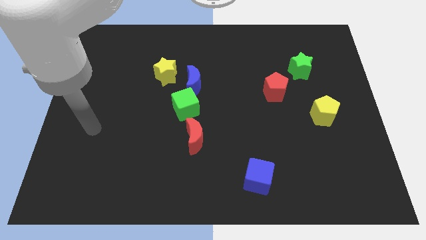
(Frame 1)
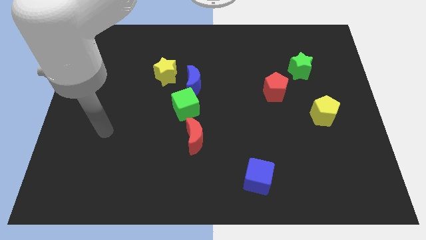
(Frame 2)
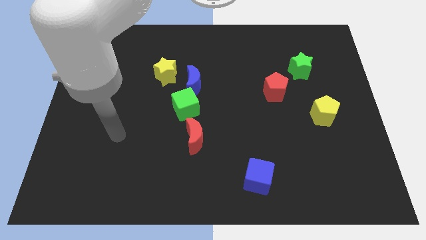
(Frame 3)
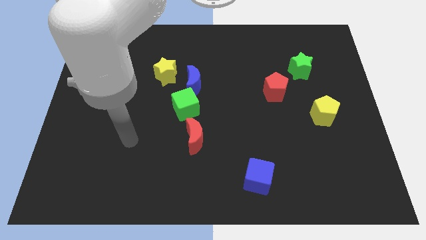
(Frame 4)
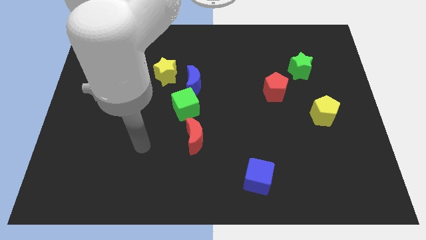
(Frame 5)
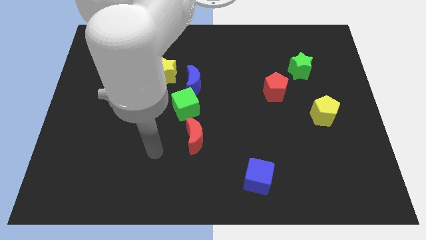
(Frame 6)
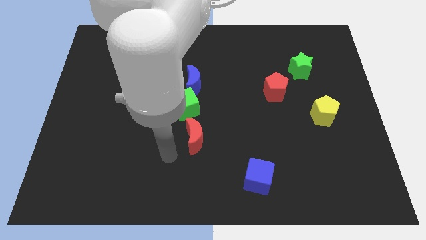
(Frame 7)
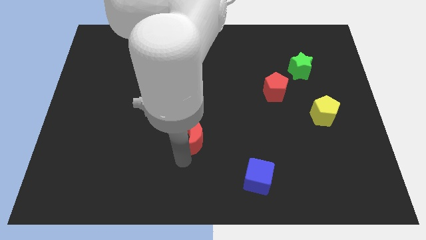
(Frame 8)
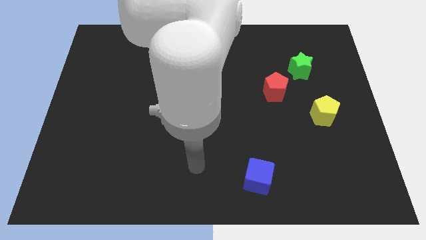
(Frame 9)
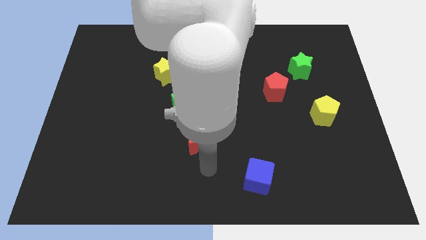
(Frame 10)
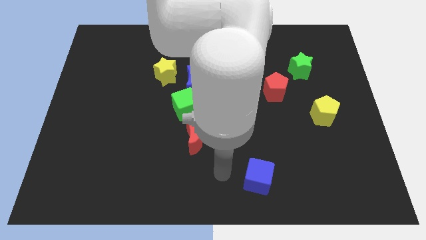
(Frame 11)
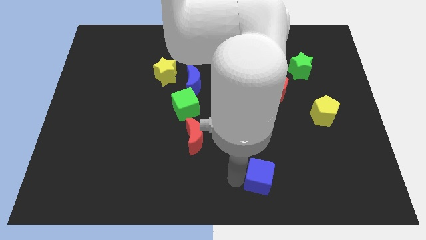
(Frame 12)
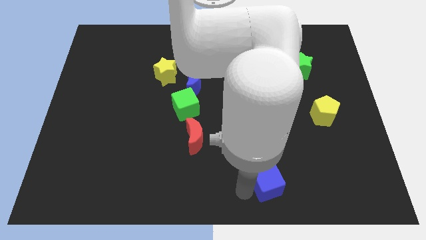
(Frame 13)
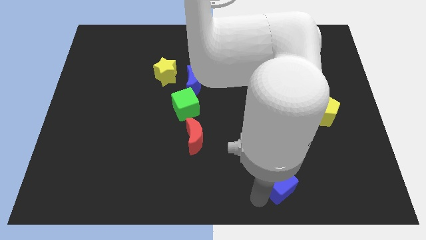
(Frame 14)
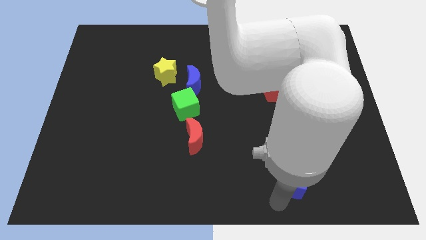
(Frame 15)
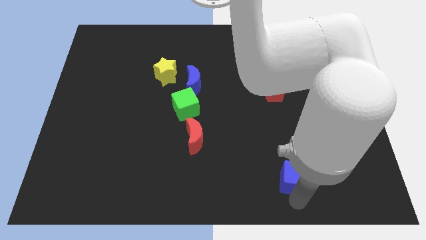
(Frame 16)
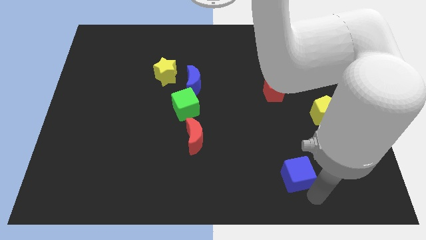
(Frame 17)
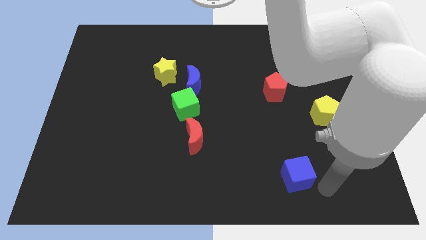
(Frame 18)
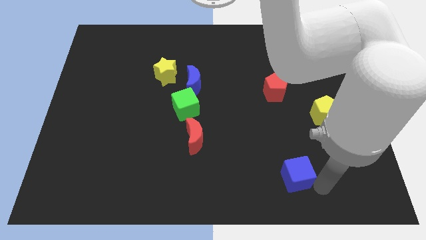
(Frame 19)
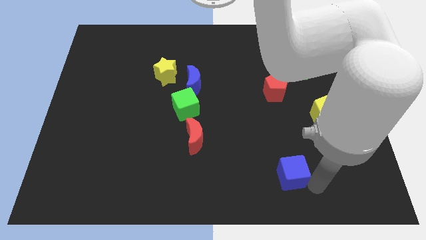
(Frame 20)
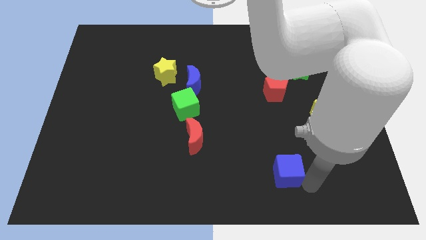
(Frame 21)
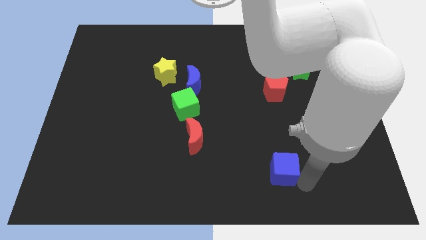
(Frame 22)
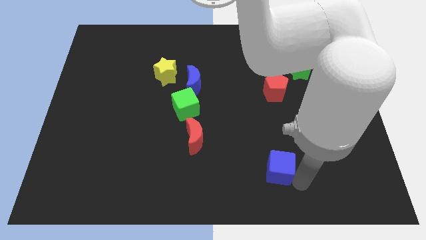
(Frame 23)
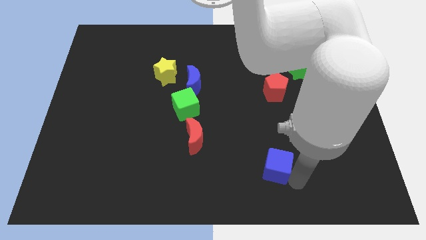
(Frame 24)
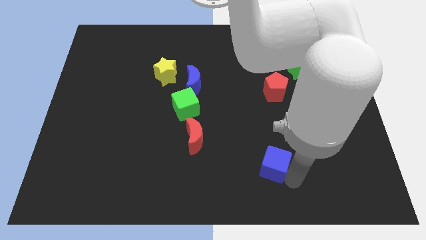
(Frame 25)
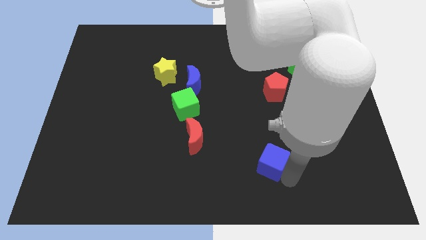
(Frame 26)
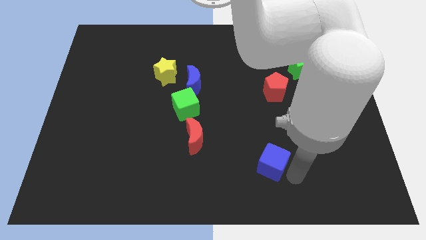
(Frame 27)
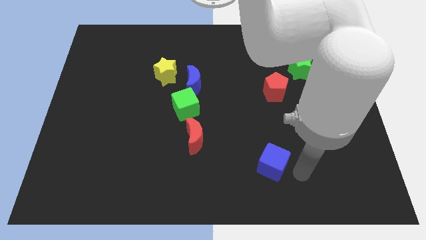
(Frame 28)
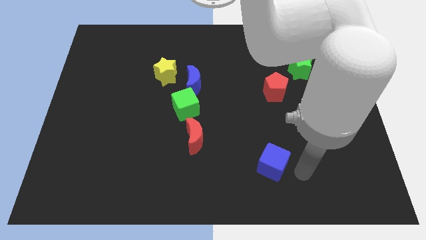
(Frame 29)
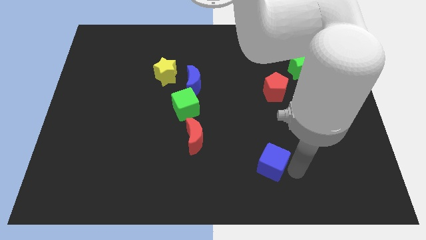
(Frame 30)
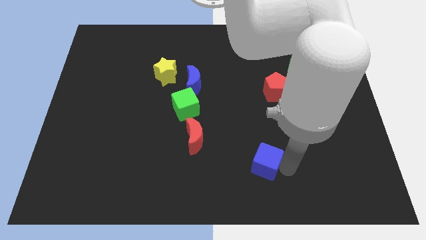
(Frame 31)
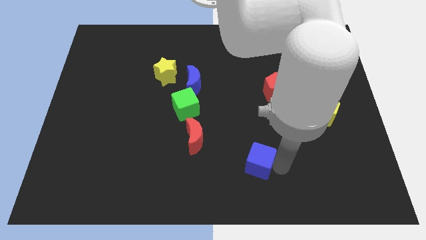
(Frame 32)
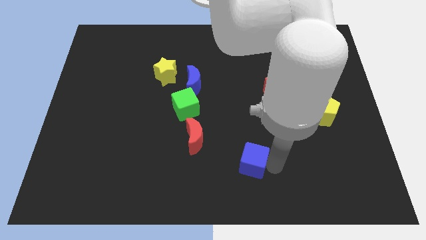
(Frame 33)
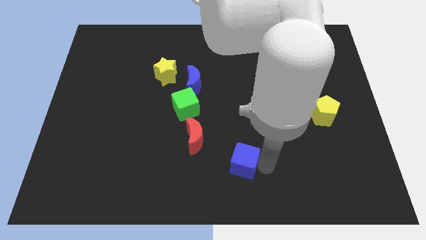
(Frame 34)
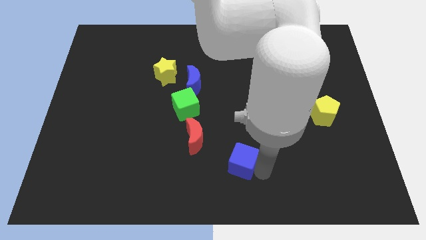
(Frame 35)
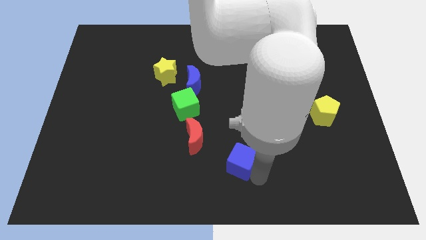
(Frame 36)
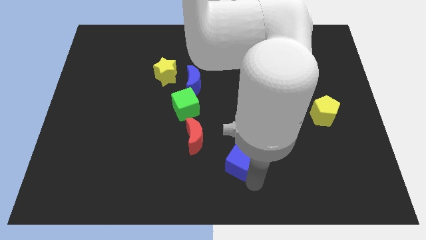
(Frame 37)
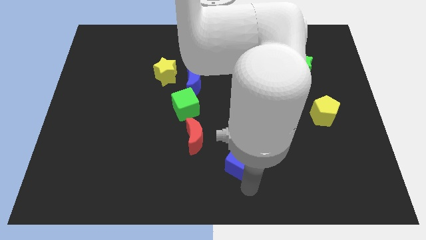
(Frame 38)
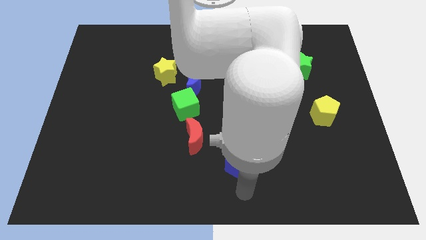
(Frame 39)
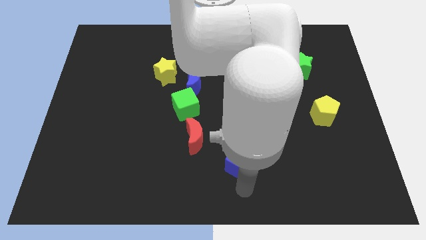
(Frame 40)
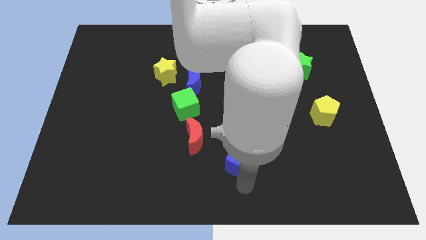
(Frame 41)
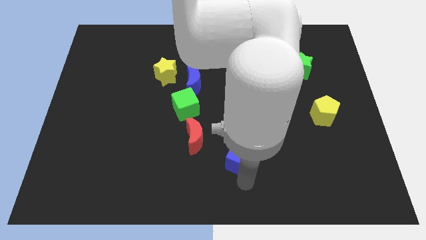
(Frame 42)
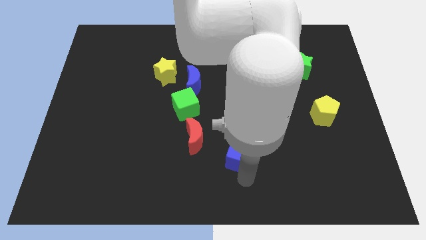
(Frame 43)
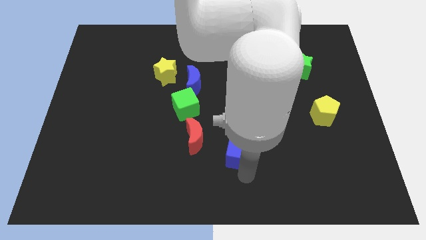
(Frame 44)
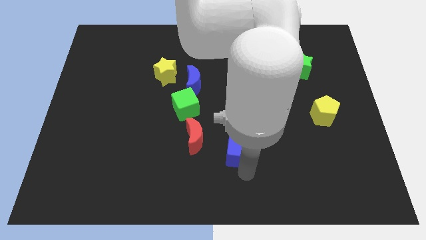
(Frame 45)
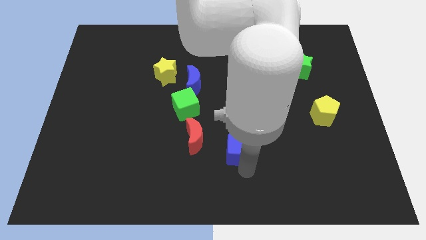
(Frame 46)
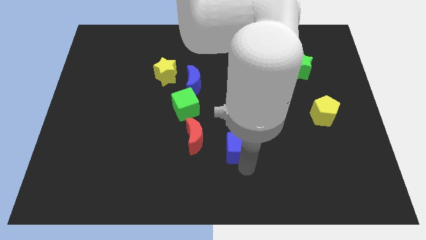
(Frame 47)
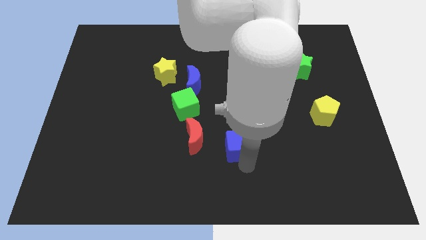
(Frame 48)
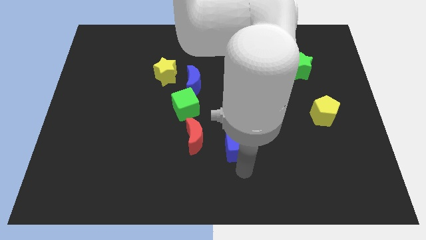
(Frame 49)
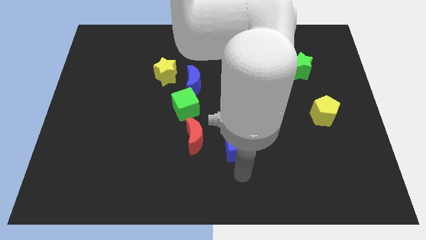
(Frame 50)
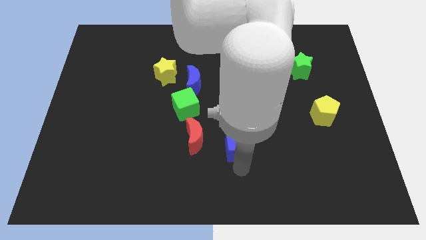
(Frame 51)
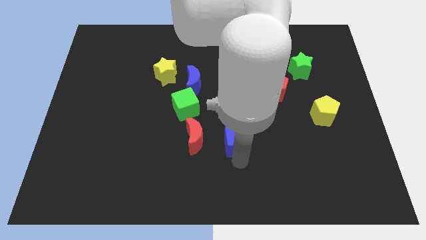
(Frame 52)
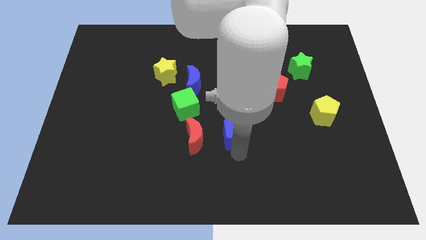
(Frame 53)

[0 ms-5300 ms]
put the blue cube to the middle of the board
